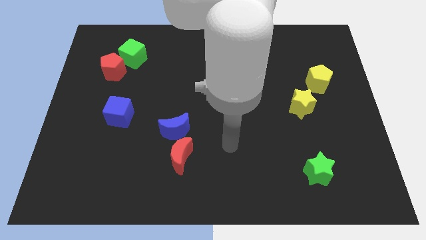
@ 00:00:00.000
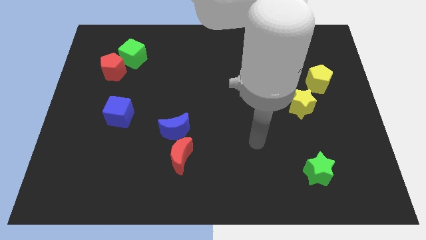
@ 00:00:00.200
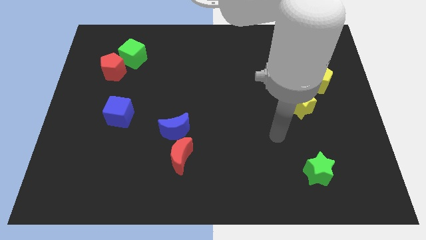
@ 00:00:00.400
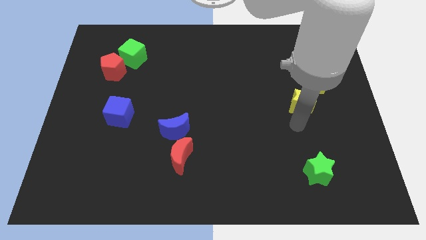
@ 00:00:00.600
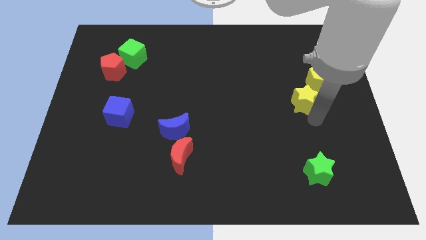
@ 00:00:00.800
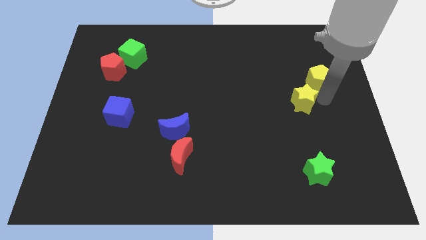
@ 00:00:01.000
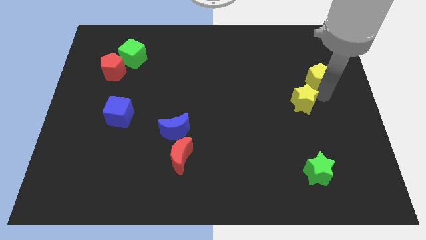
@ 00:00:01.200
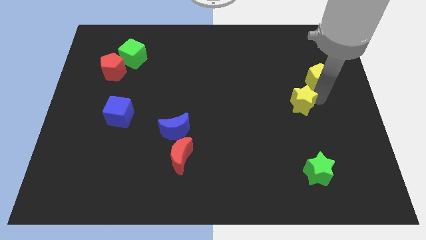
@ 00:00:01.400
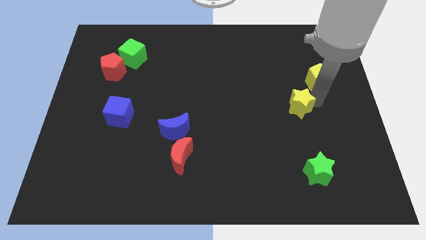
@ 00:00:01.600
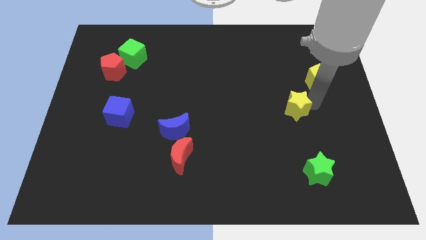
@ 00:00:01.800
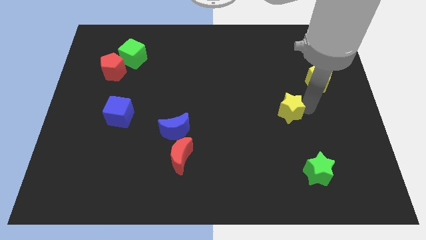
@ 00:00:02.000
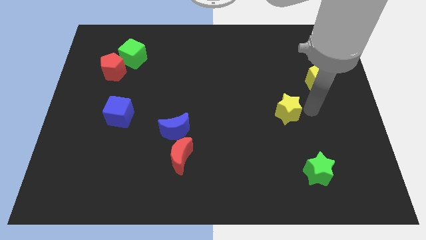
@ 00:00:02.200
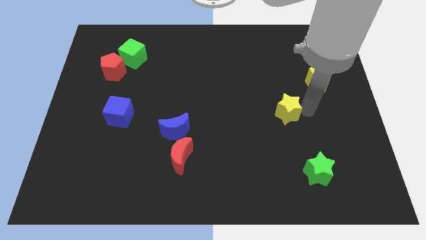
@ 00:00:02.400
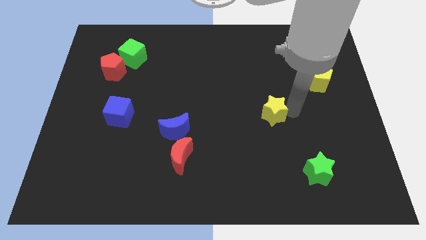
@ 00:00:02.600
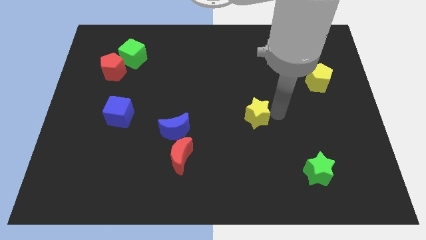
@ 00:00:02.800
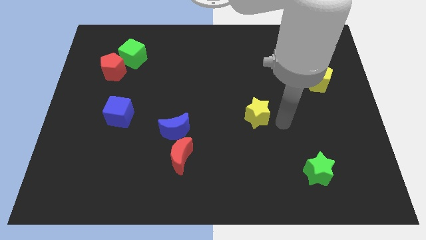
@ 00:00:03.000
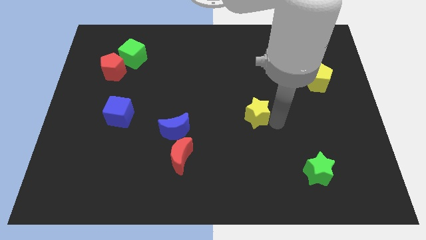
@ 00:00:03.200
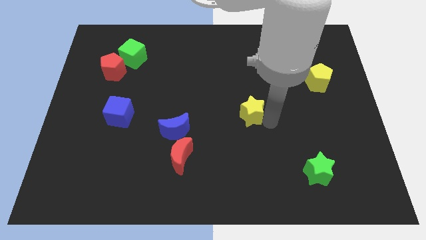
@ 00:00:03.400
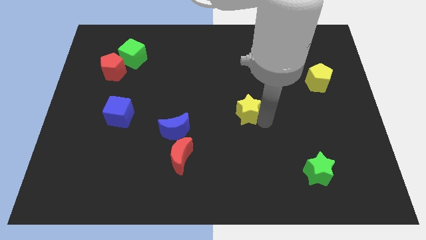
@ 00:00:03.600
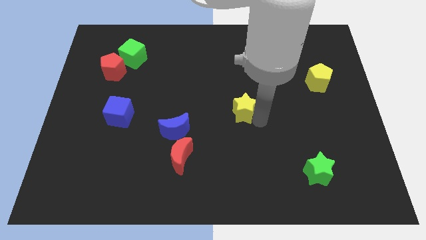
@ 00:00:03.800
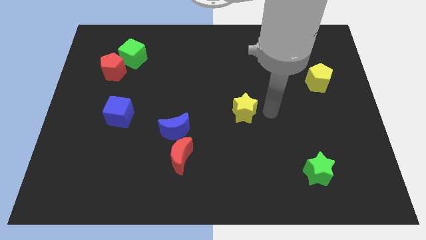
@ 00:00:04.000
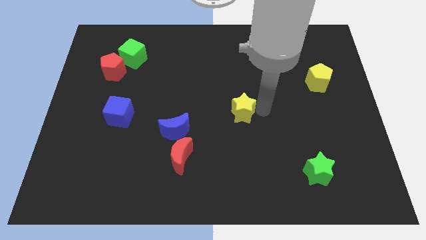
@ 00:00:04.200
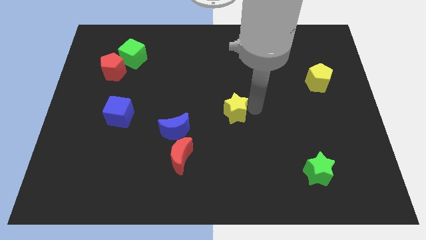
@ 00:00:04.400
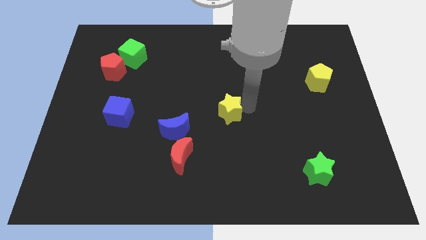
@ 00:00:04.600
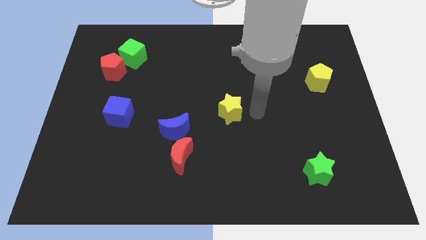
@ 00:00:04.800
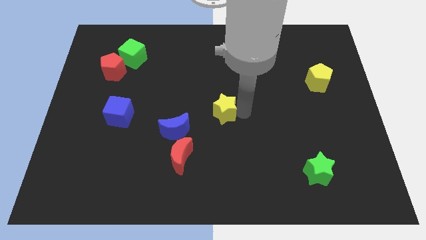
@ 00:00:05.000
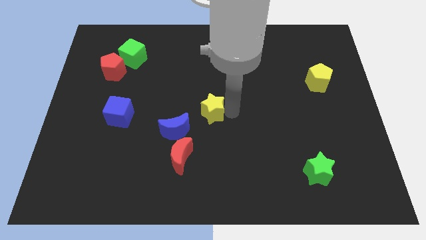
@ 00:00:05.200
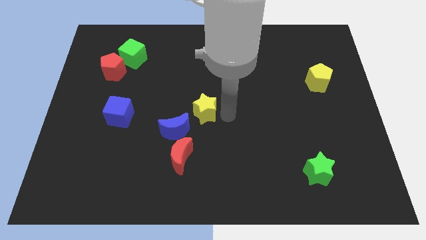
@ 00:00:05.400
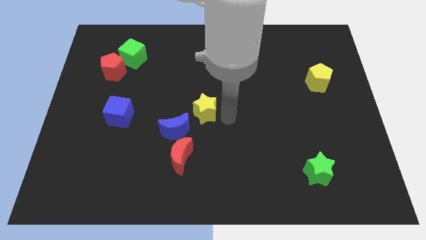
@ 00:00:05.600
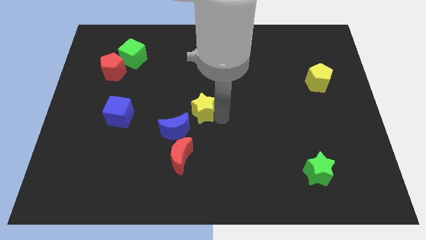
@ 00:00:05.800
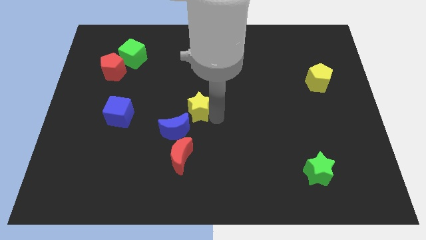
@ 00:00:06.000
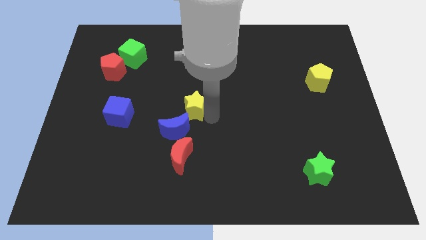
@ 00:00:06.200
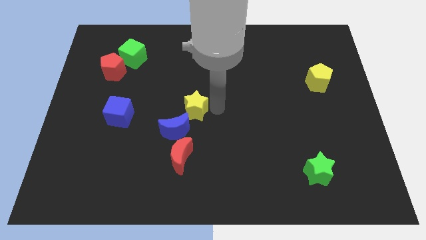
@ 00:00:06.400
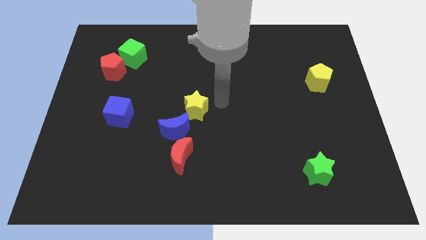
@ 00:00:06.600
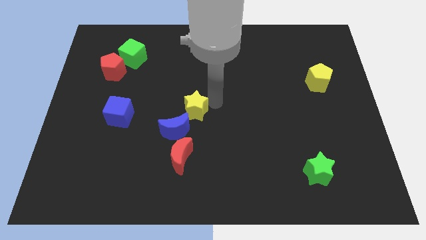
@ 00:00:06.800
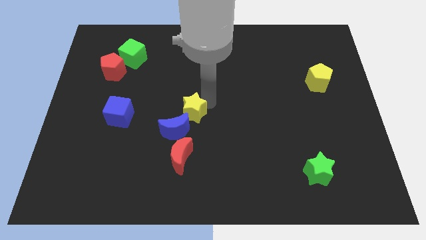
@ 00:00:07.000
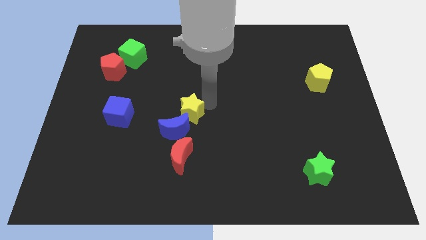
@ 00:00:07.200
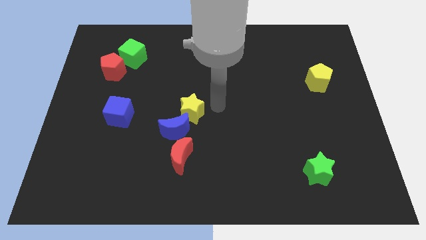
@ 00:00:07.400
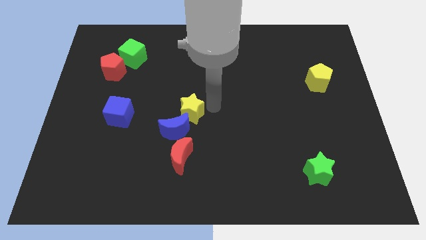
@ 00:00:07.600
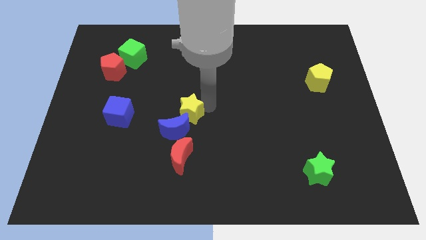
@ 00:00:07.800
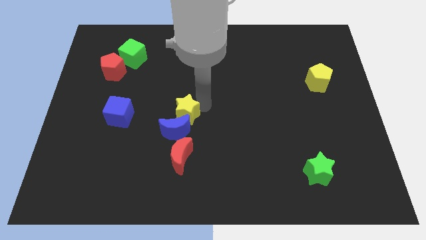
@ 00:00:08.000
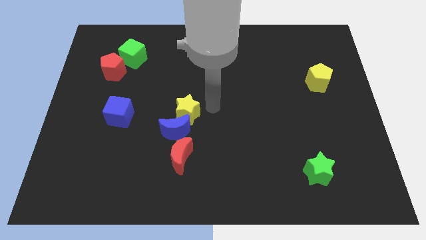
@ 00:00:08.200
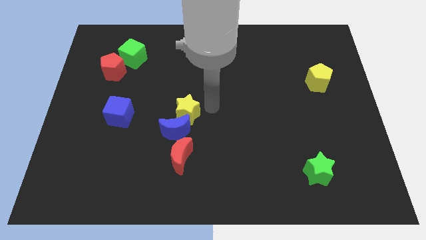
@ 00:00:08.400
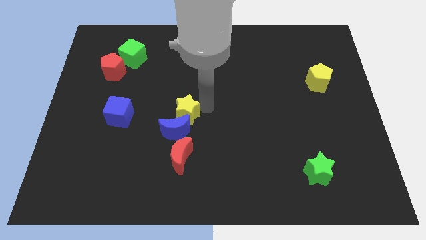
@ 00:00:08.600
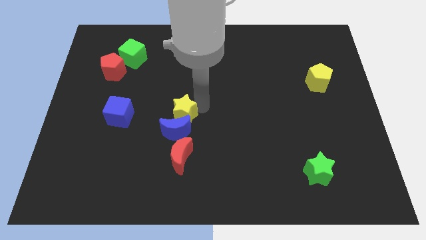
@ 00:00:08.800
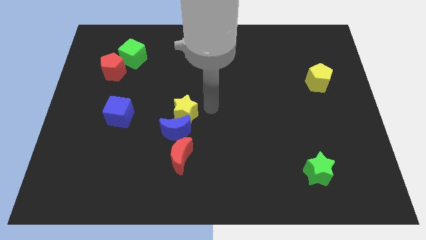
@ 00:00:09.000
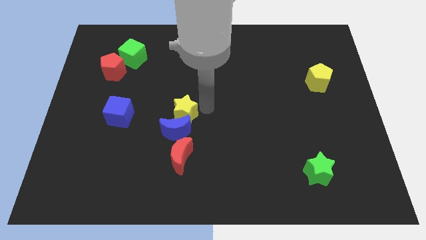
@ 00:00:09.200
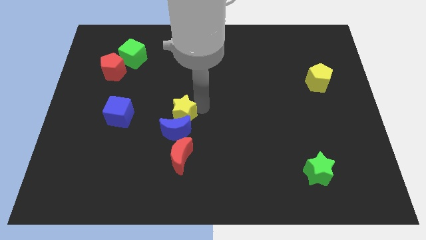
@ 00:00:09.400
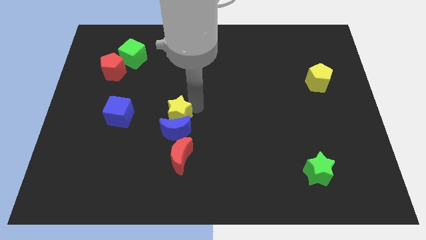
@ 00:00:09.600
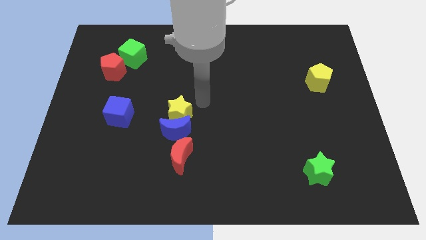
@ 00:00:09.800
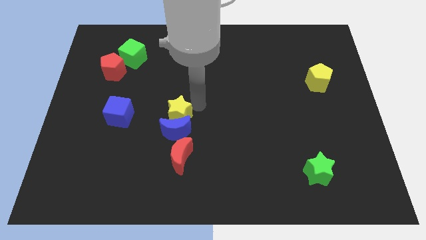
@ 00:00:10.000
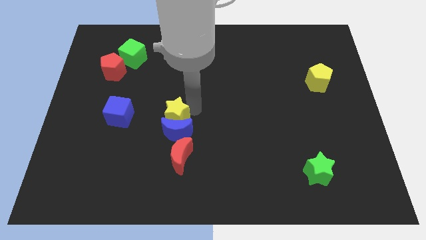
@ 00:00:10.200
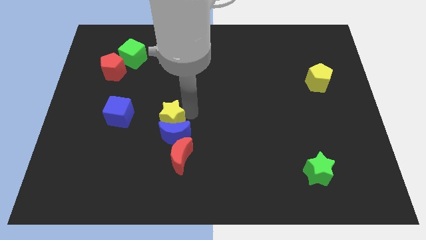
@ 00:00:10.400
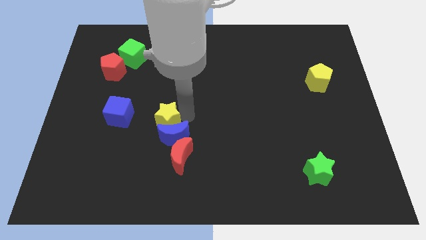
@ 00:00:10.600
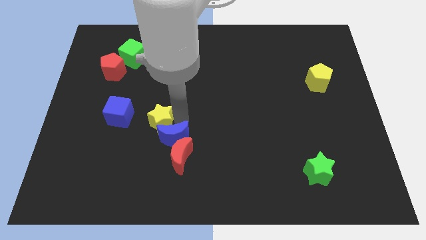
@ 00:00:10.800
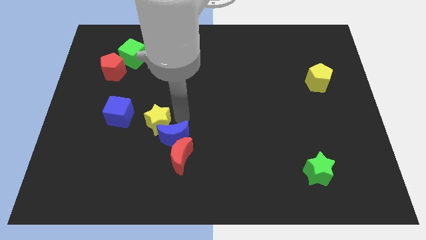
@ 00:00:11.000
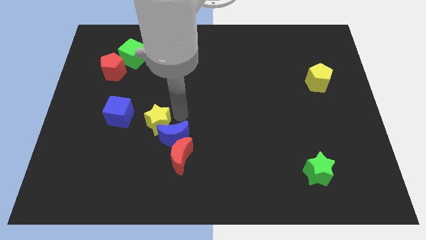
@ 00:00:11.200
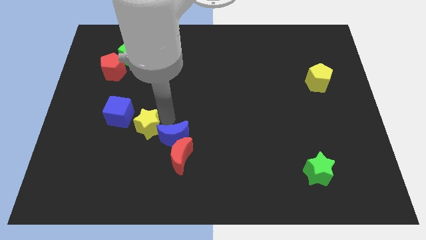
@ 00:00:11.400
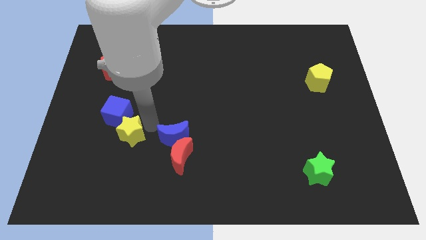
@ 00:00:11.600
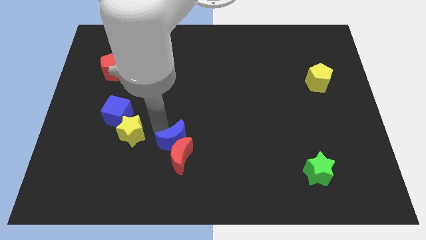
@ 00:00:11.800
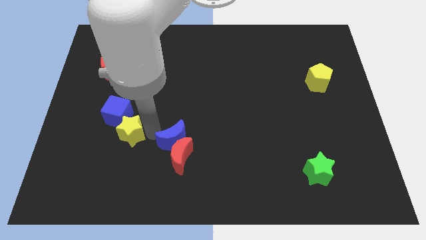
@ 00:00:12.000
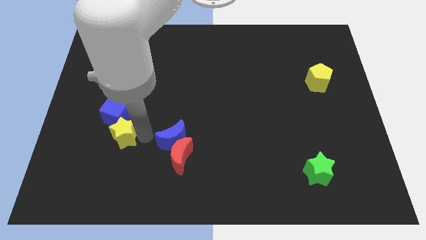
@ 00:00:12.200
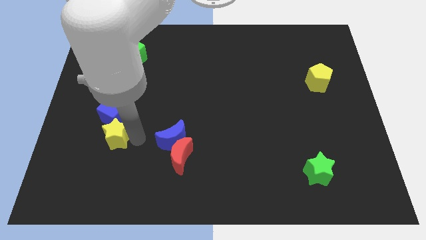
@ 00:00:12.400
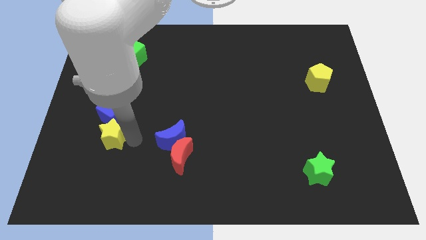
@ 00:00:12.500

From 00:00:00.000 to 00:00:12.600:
move the yellow star to the bottom left side of the blue cube
